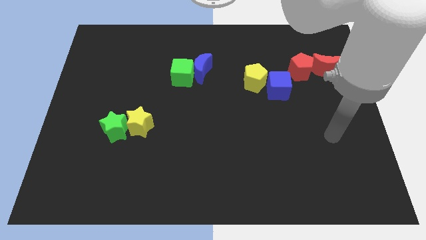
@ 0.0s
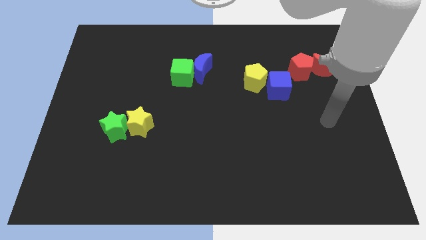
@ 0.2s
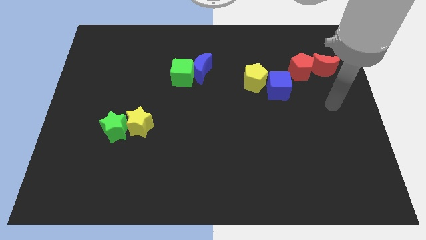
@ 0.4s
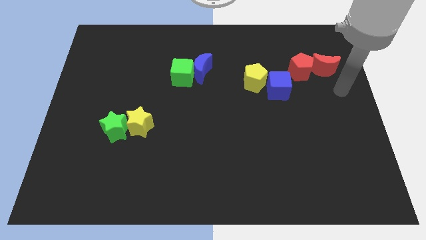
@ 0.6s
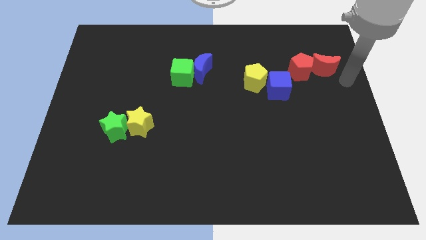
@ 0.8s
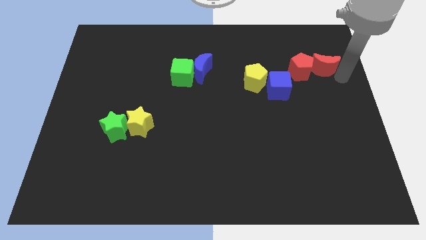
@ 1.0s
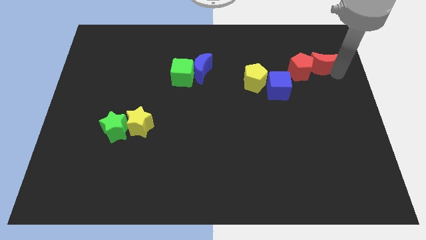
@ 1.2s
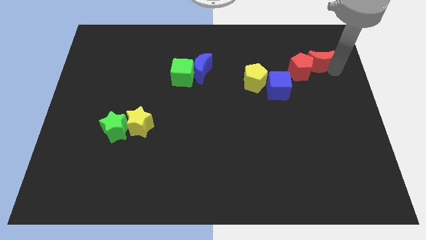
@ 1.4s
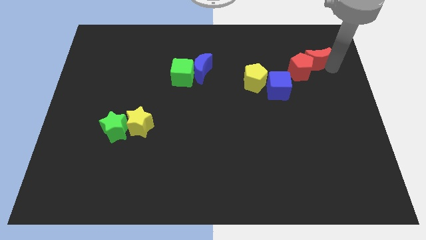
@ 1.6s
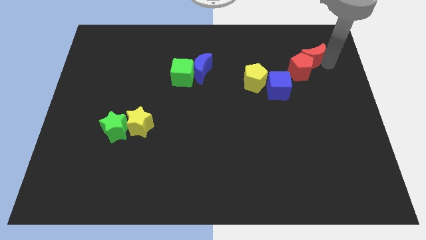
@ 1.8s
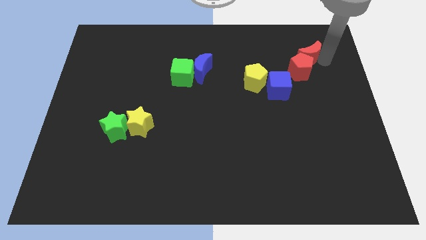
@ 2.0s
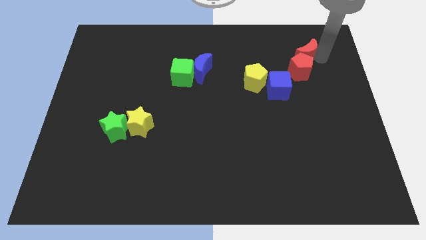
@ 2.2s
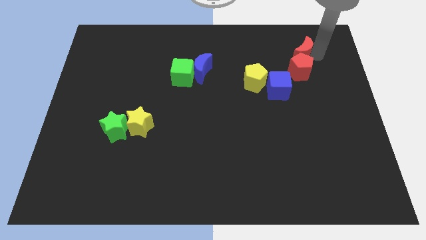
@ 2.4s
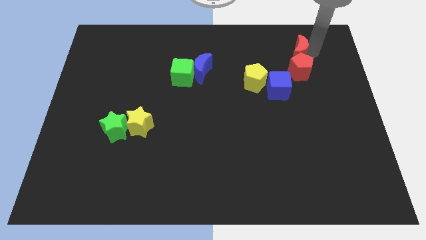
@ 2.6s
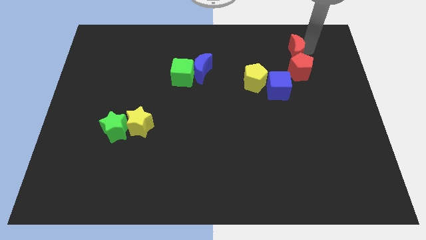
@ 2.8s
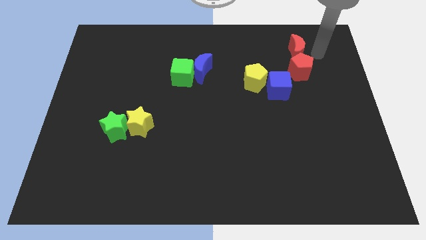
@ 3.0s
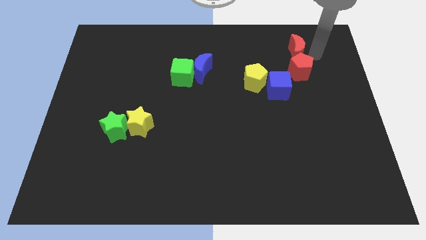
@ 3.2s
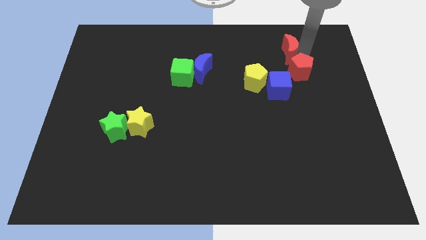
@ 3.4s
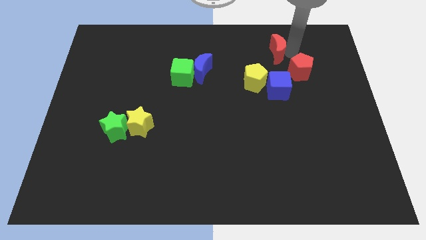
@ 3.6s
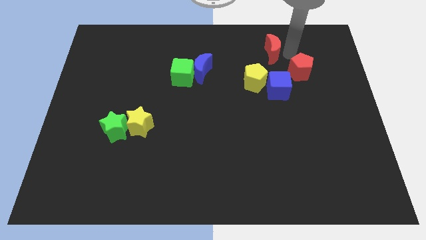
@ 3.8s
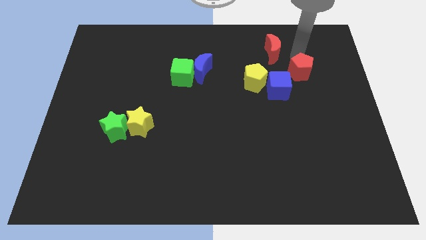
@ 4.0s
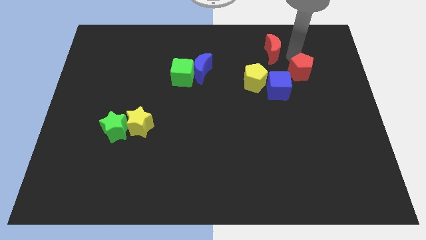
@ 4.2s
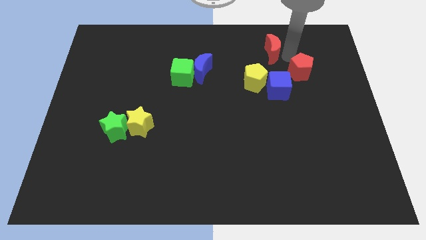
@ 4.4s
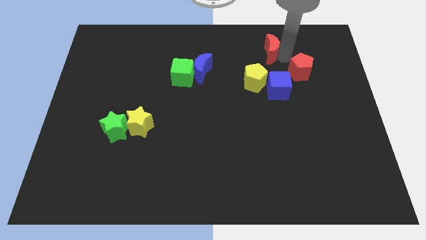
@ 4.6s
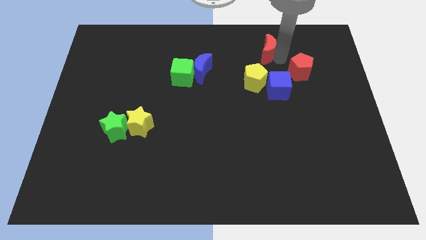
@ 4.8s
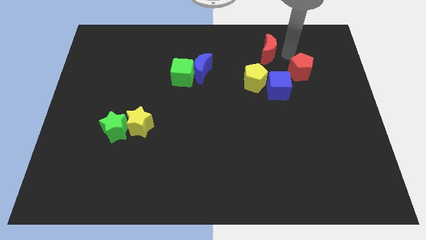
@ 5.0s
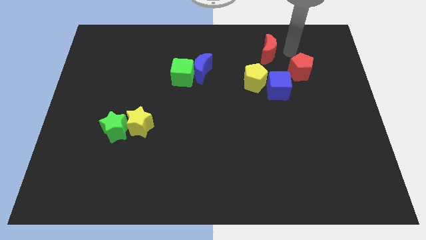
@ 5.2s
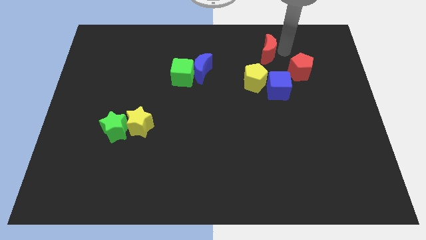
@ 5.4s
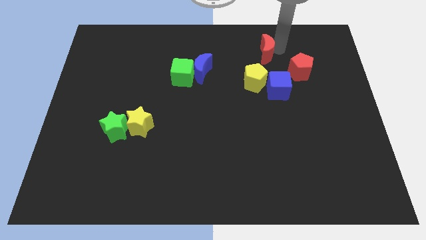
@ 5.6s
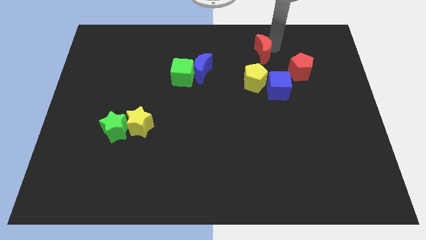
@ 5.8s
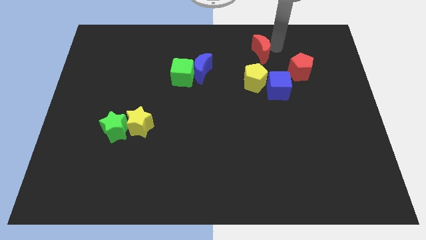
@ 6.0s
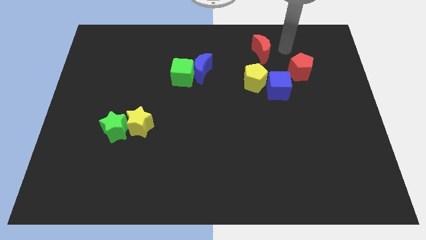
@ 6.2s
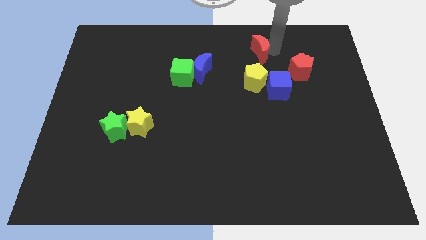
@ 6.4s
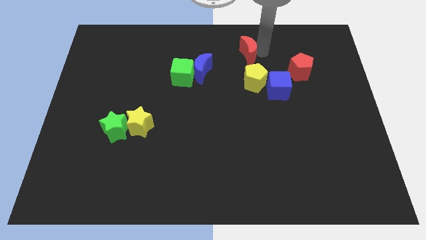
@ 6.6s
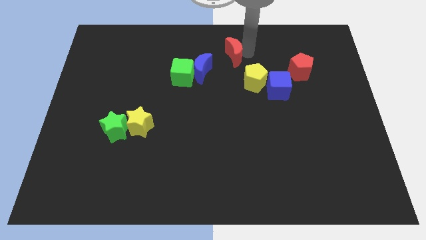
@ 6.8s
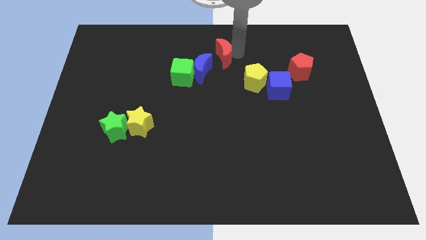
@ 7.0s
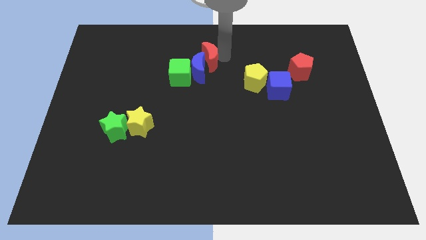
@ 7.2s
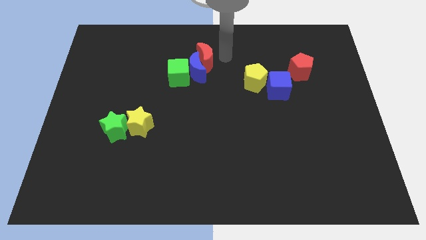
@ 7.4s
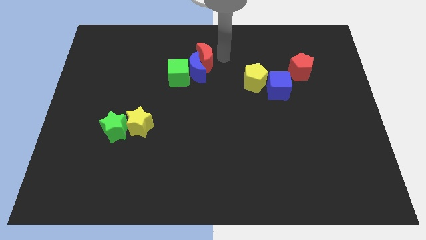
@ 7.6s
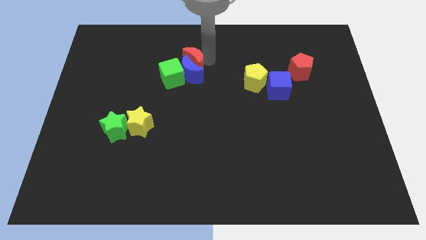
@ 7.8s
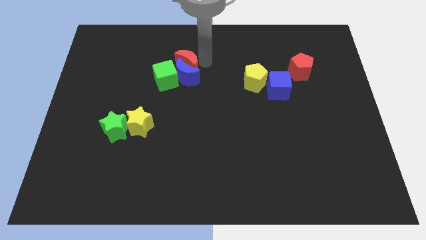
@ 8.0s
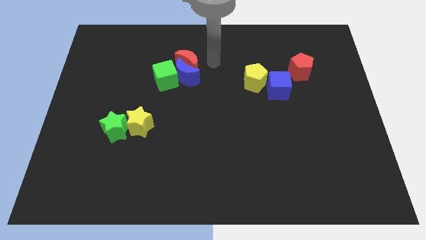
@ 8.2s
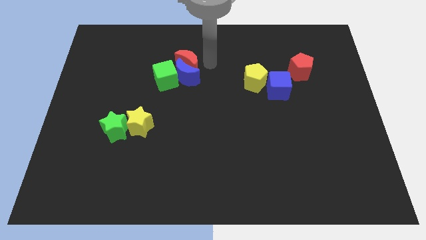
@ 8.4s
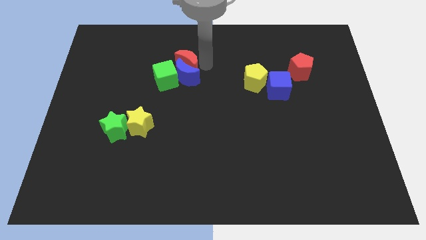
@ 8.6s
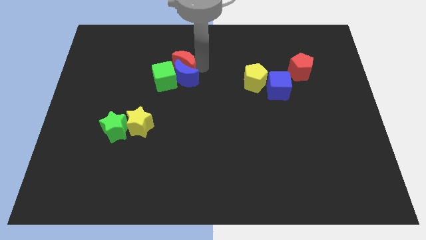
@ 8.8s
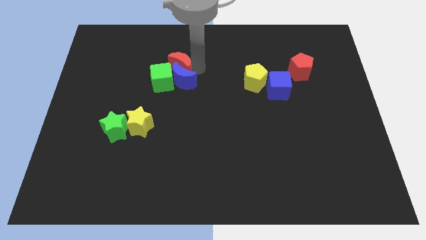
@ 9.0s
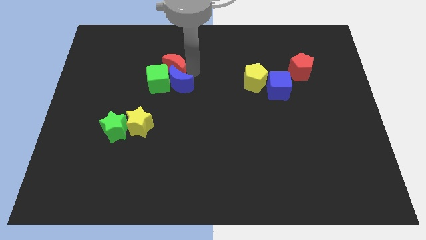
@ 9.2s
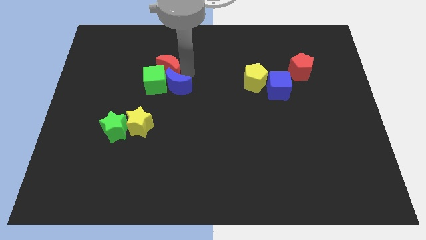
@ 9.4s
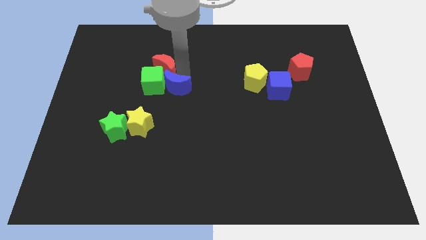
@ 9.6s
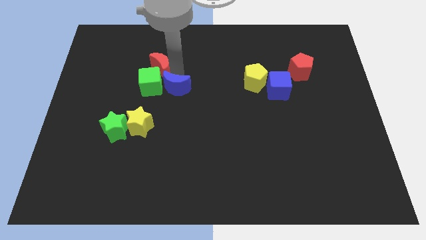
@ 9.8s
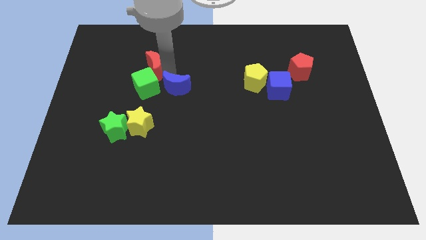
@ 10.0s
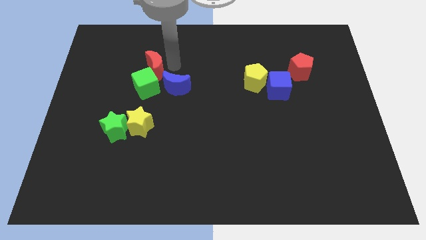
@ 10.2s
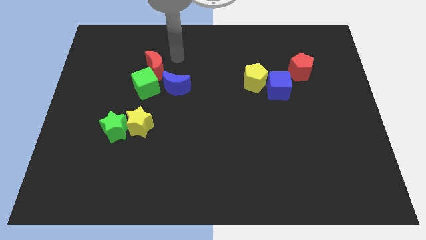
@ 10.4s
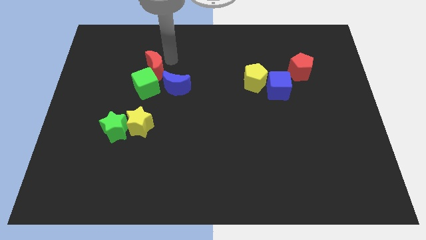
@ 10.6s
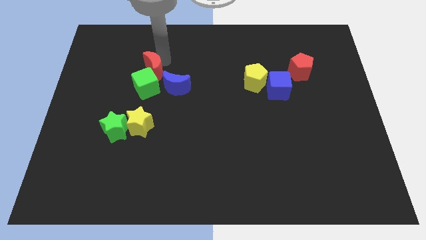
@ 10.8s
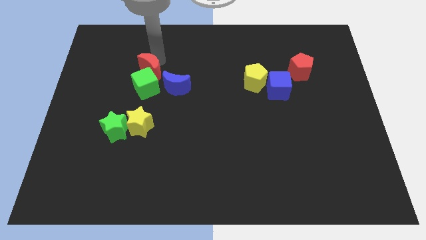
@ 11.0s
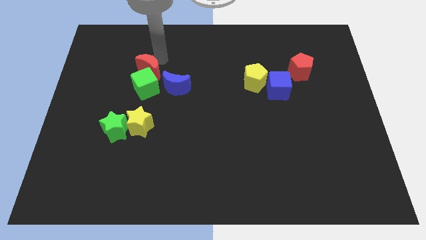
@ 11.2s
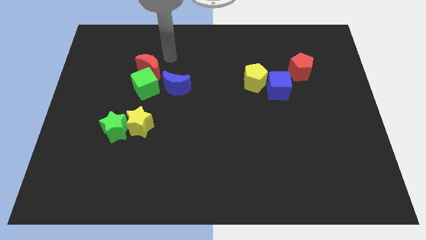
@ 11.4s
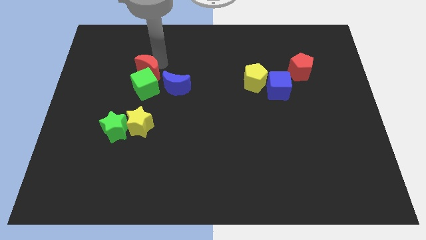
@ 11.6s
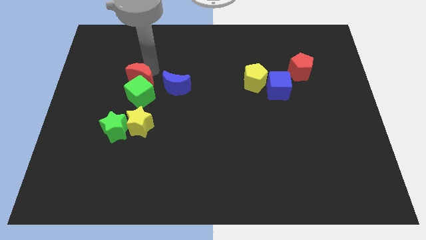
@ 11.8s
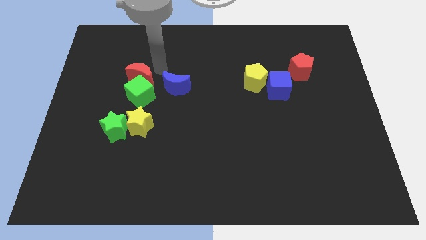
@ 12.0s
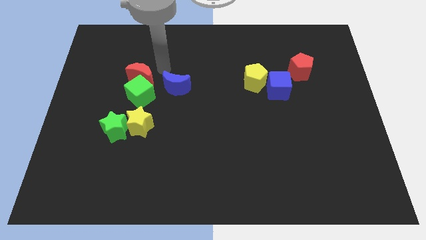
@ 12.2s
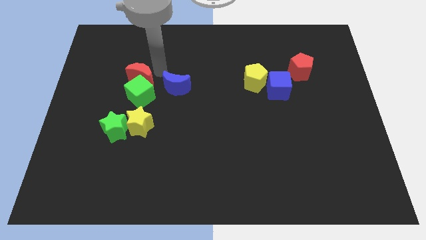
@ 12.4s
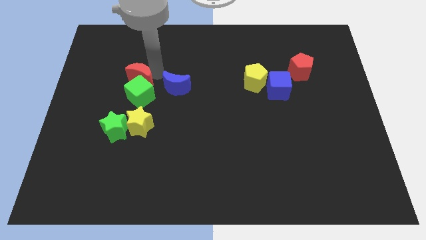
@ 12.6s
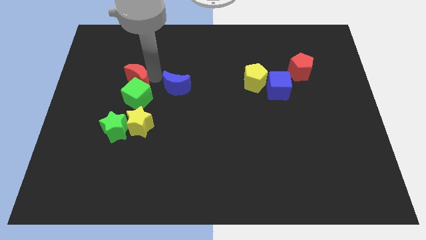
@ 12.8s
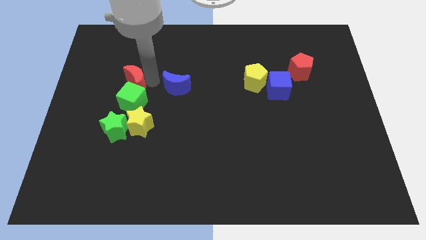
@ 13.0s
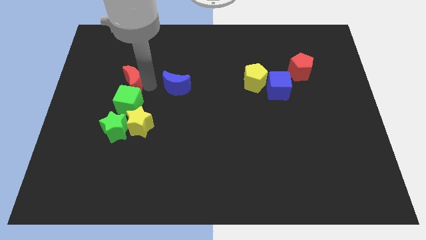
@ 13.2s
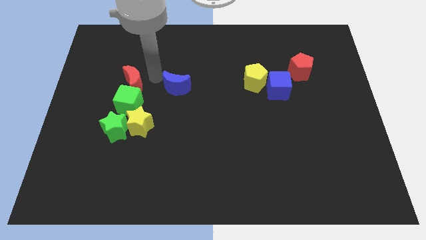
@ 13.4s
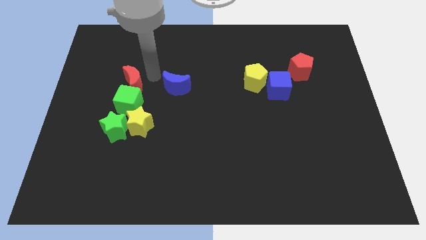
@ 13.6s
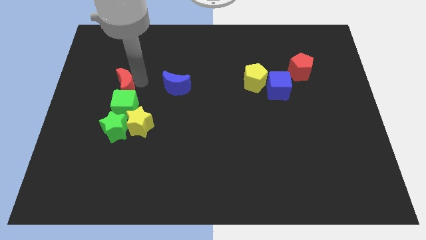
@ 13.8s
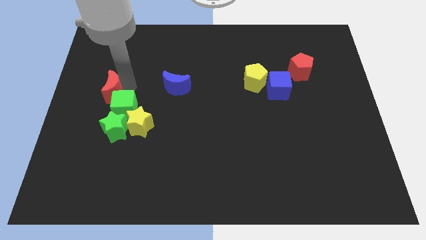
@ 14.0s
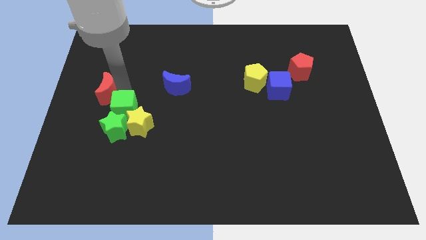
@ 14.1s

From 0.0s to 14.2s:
slide the red moon to the left side of the board
